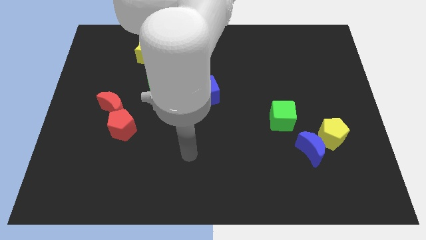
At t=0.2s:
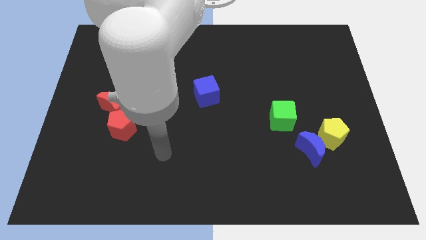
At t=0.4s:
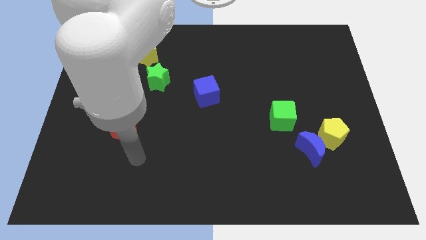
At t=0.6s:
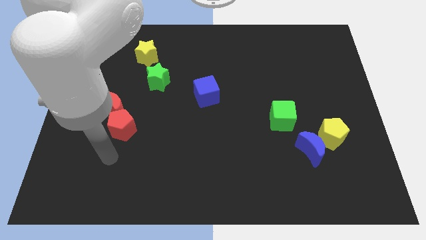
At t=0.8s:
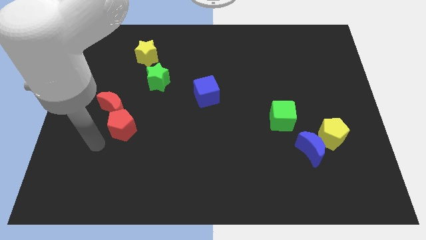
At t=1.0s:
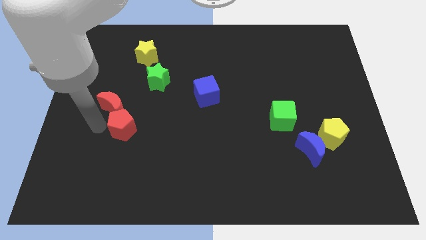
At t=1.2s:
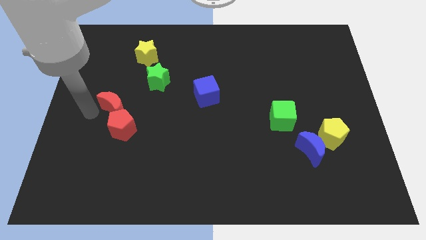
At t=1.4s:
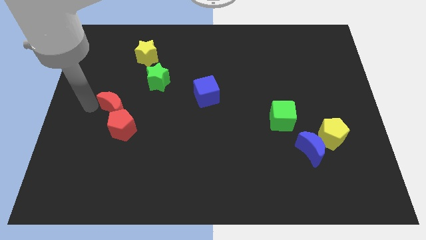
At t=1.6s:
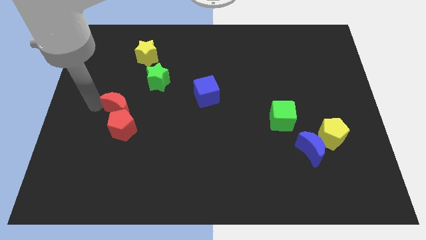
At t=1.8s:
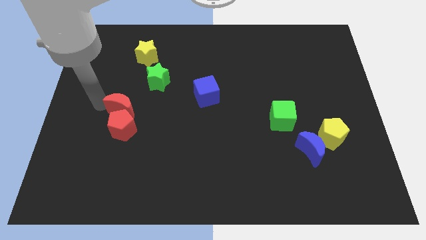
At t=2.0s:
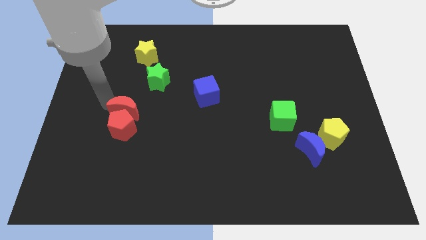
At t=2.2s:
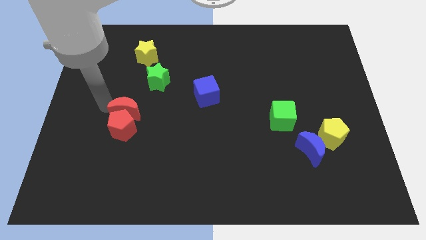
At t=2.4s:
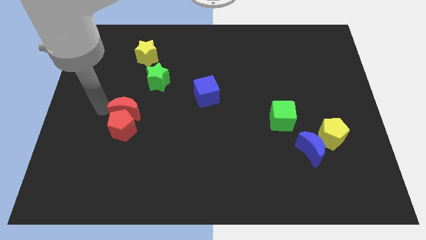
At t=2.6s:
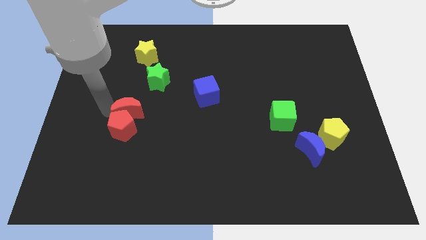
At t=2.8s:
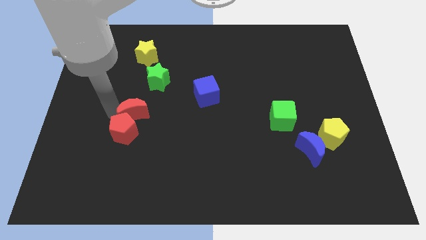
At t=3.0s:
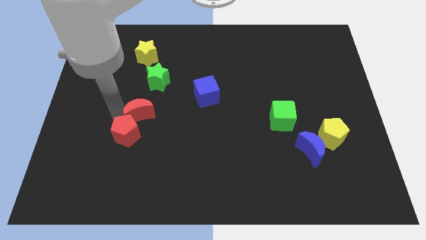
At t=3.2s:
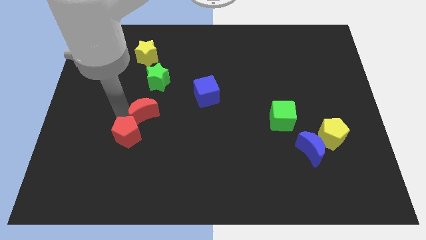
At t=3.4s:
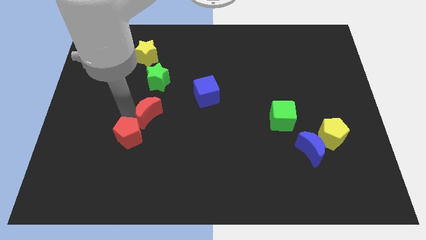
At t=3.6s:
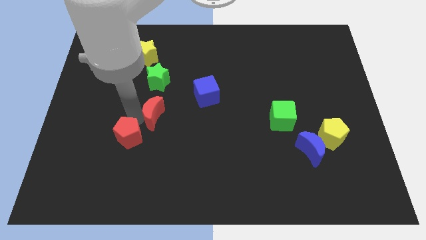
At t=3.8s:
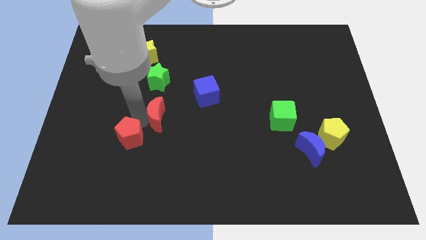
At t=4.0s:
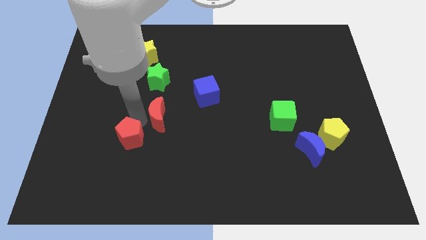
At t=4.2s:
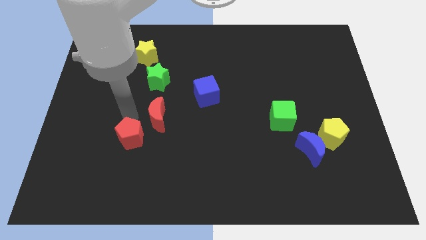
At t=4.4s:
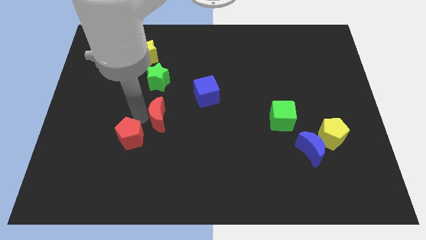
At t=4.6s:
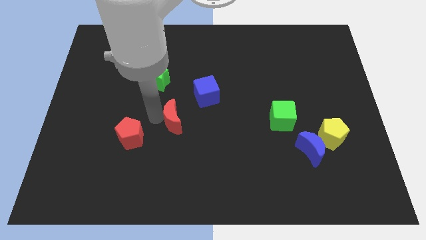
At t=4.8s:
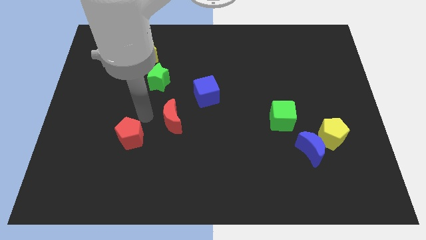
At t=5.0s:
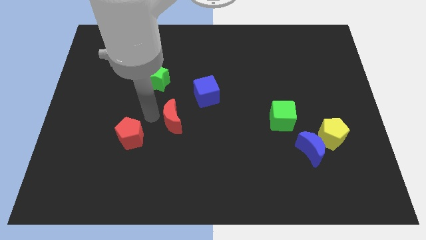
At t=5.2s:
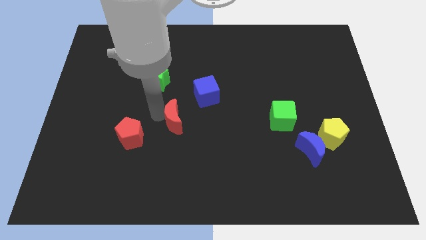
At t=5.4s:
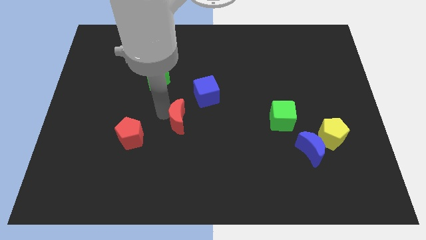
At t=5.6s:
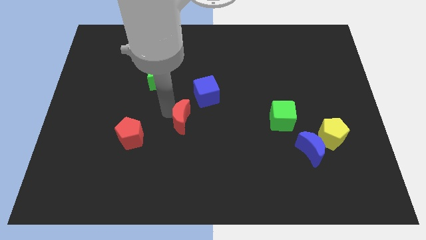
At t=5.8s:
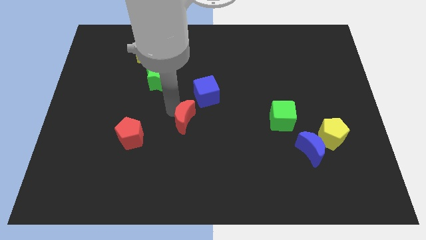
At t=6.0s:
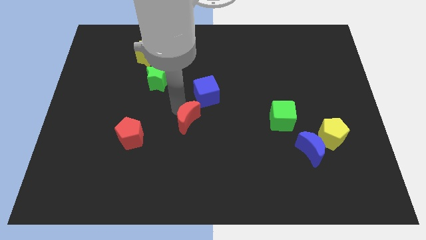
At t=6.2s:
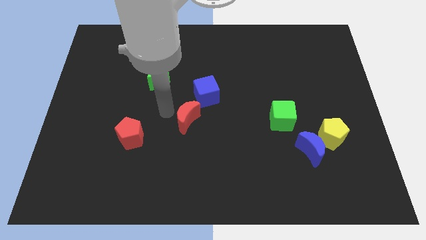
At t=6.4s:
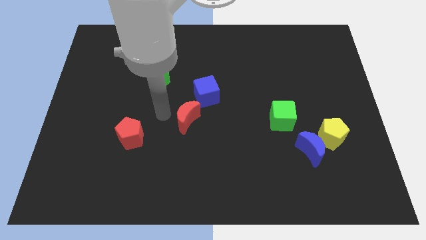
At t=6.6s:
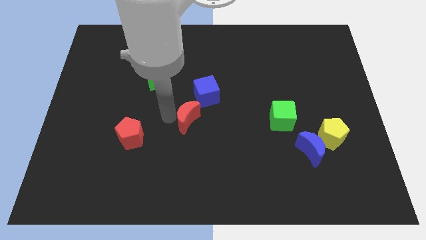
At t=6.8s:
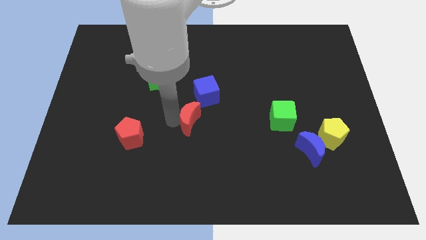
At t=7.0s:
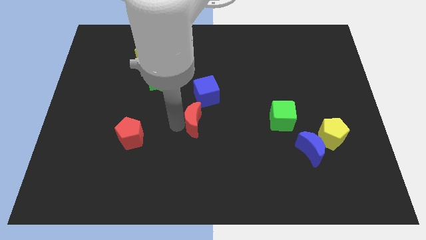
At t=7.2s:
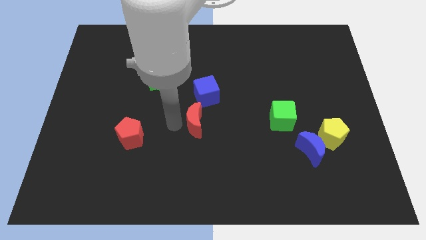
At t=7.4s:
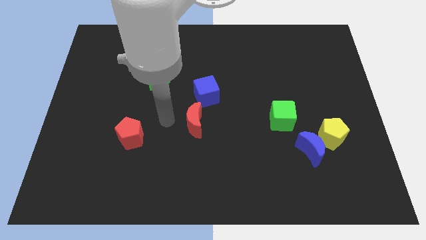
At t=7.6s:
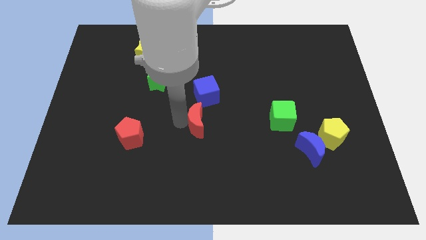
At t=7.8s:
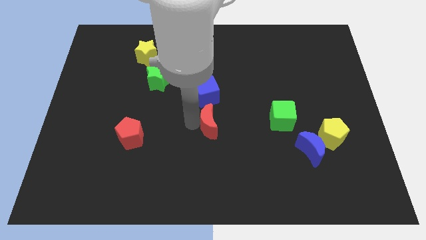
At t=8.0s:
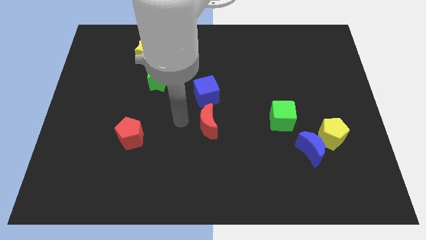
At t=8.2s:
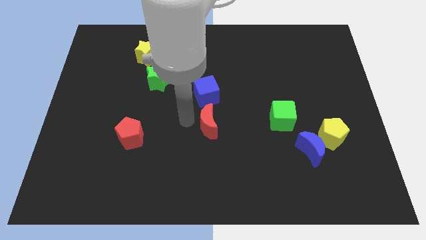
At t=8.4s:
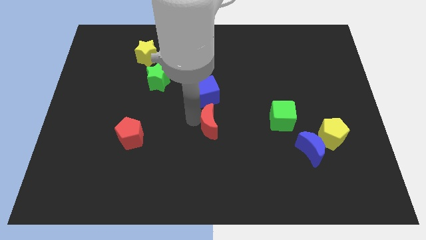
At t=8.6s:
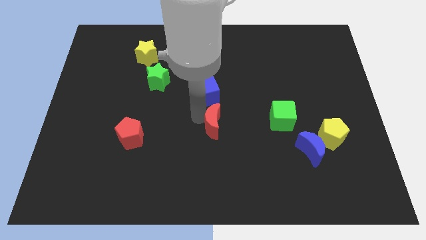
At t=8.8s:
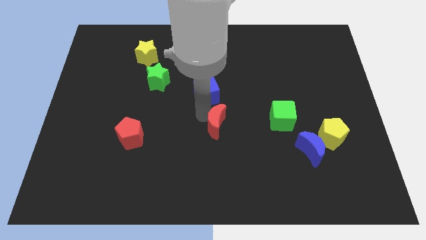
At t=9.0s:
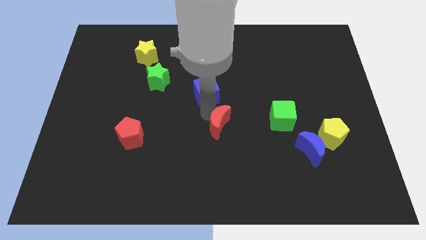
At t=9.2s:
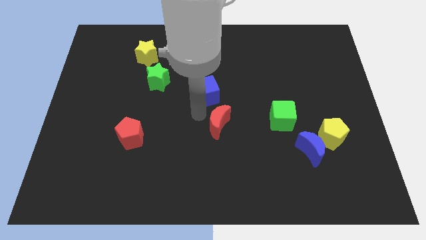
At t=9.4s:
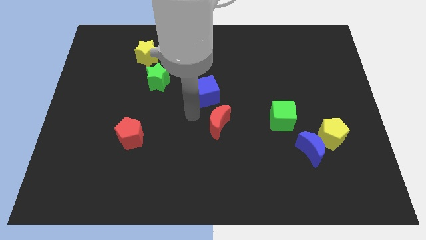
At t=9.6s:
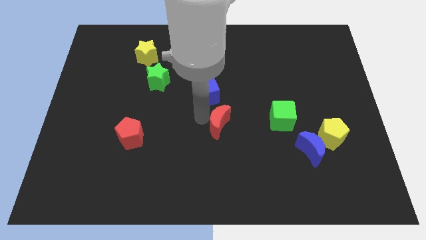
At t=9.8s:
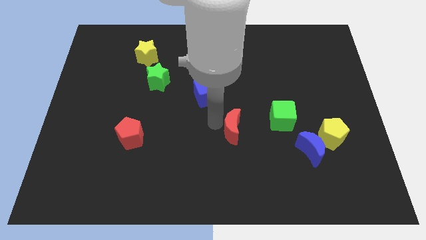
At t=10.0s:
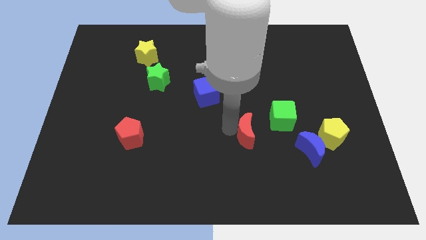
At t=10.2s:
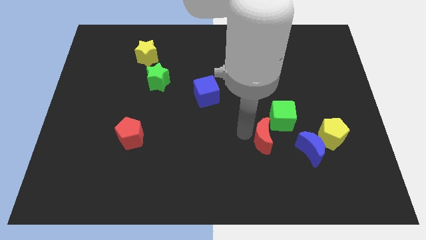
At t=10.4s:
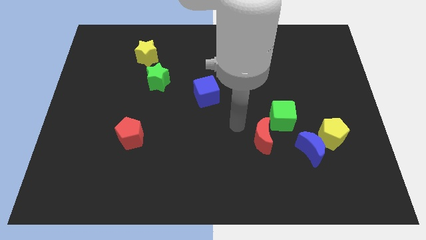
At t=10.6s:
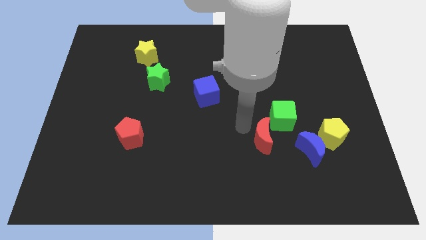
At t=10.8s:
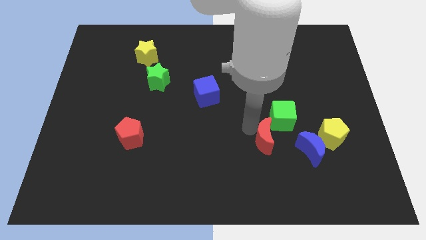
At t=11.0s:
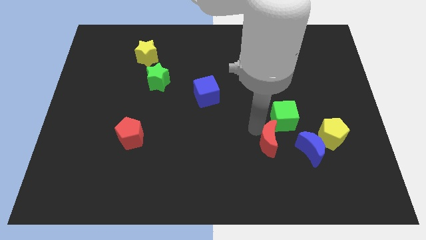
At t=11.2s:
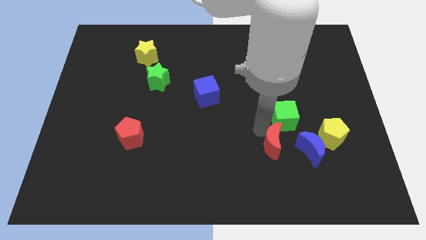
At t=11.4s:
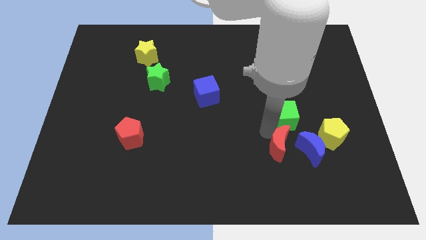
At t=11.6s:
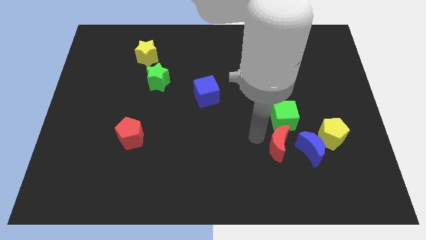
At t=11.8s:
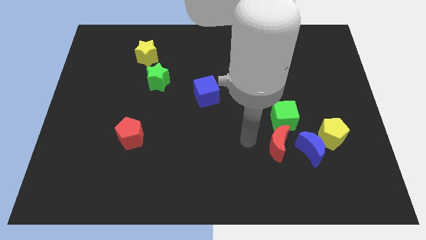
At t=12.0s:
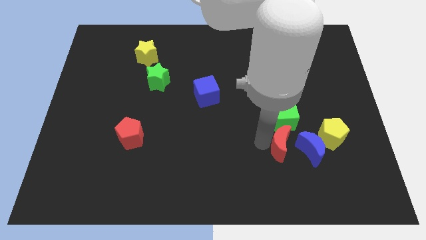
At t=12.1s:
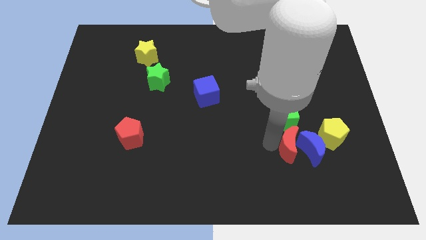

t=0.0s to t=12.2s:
put the red moon to the blue moon

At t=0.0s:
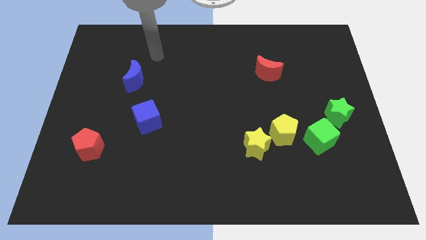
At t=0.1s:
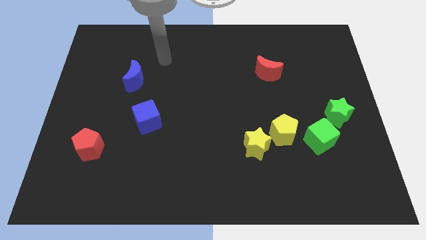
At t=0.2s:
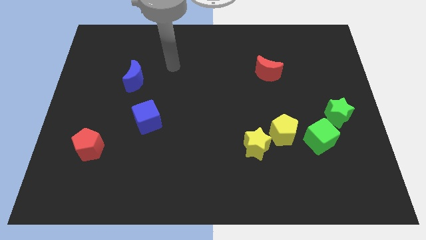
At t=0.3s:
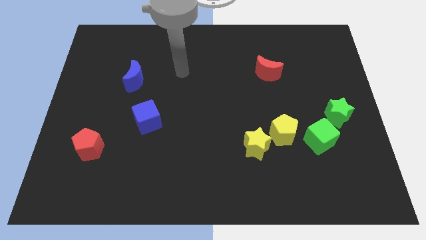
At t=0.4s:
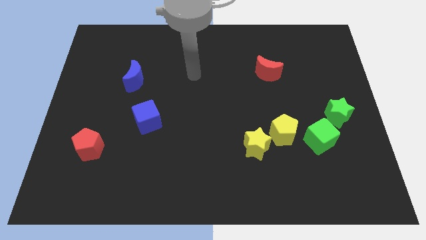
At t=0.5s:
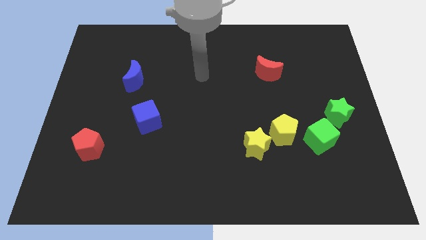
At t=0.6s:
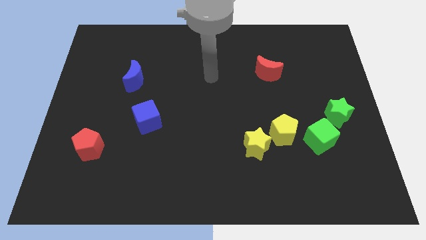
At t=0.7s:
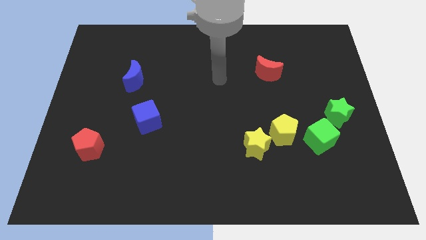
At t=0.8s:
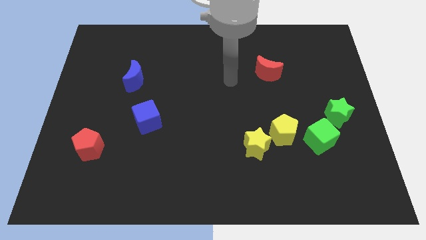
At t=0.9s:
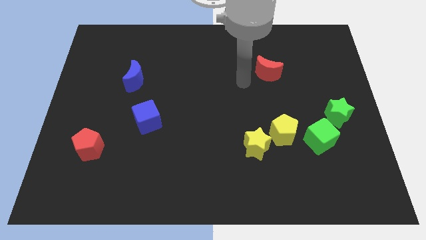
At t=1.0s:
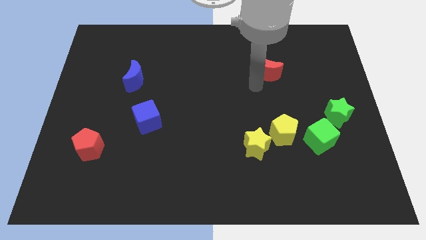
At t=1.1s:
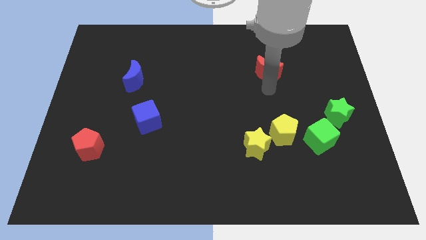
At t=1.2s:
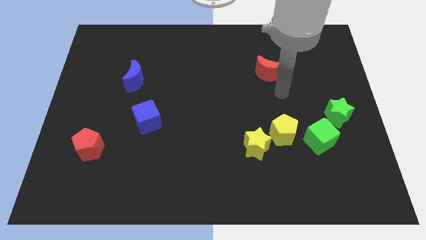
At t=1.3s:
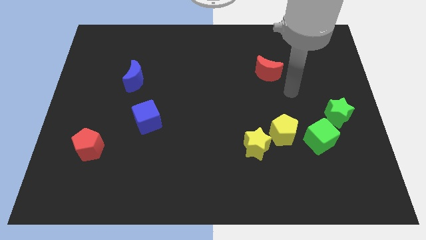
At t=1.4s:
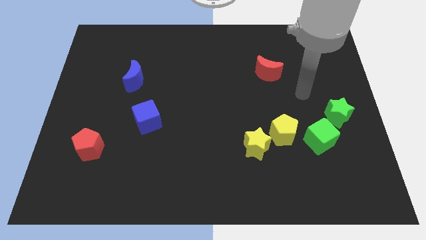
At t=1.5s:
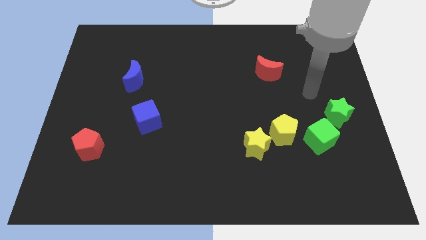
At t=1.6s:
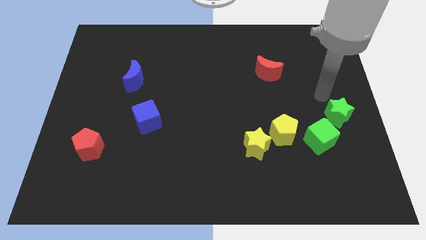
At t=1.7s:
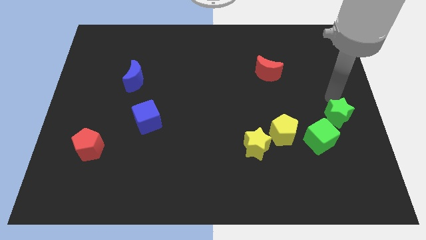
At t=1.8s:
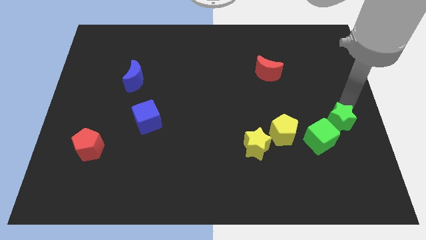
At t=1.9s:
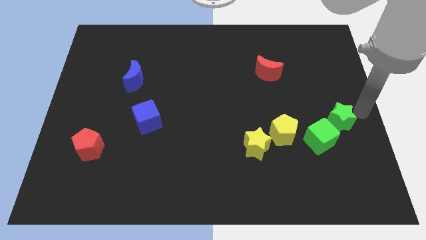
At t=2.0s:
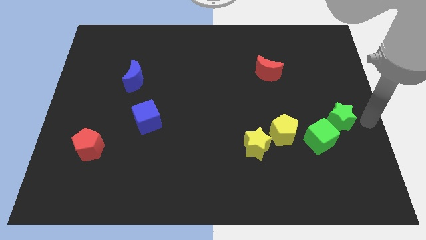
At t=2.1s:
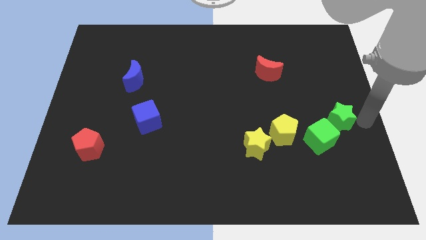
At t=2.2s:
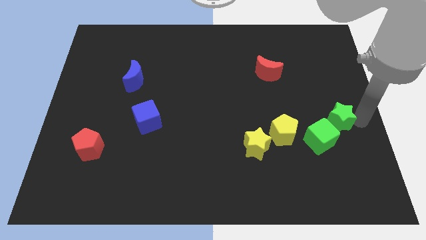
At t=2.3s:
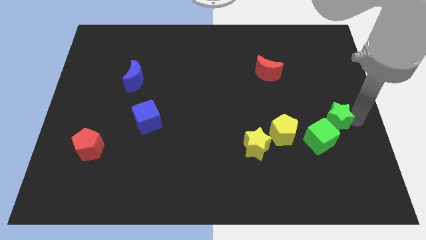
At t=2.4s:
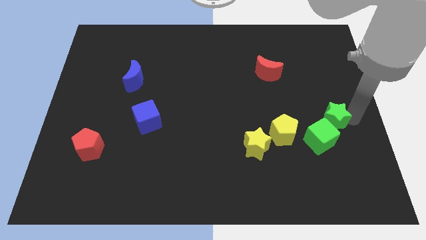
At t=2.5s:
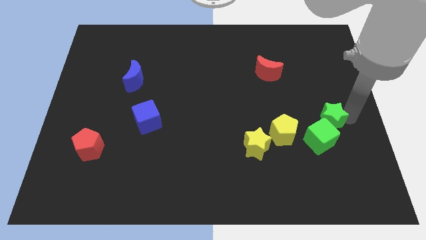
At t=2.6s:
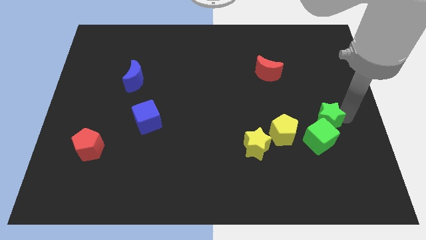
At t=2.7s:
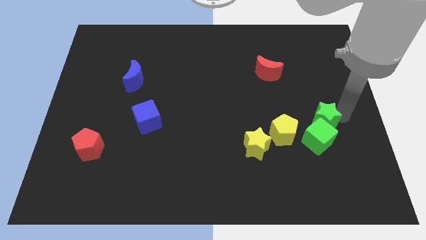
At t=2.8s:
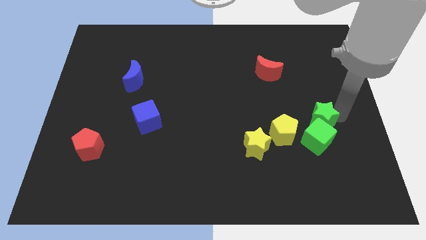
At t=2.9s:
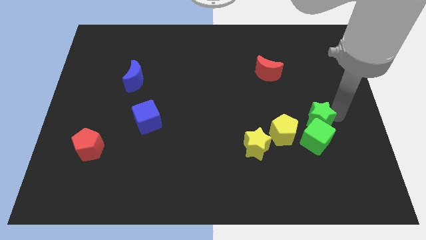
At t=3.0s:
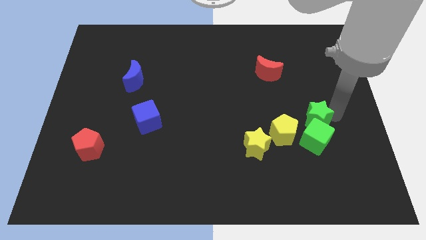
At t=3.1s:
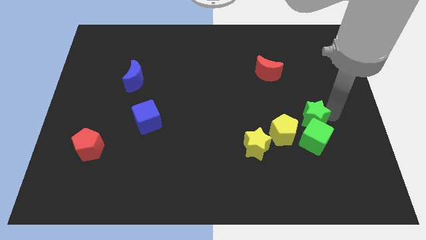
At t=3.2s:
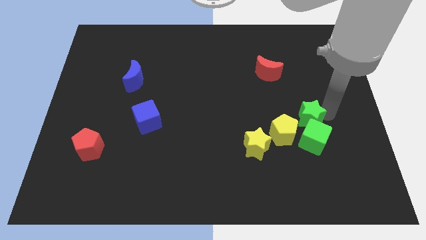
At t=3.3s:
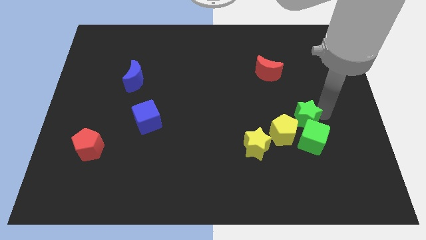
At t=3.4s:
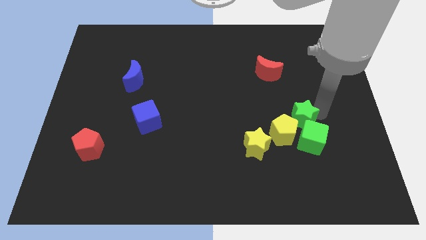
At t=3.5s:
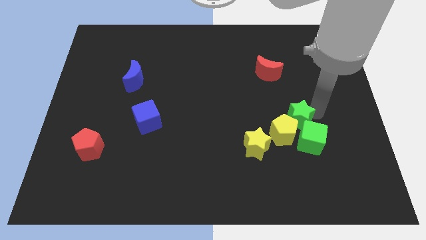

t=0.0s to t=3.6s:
move the green star to the yellow pentagon
